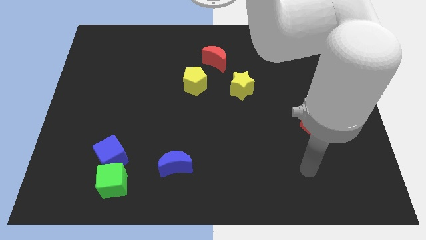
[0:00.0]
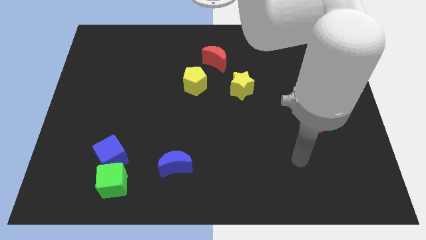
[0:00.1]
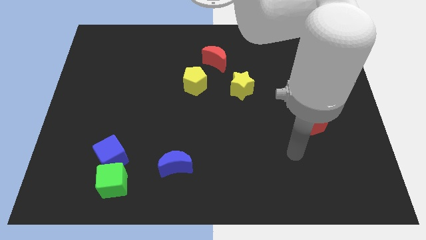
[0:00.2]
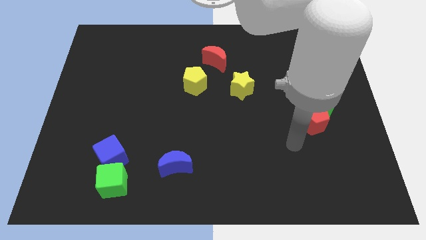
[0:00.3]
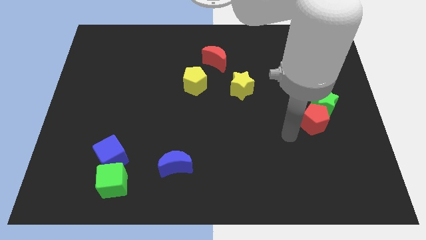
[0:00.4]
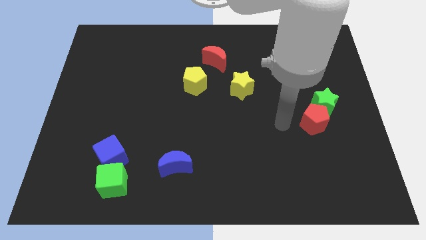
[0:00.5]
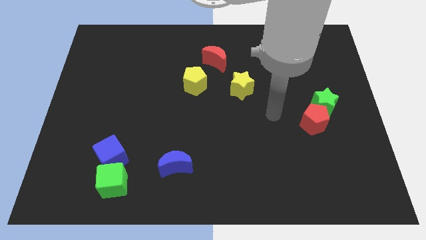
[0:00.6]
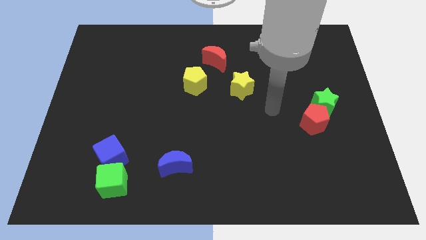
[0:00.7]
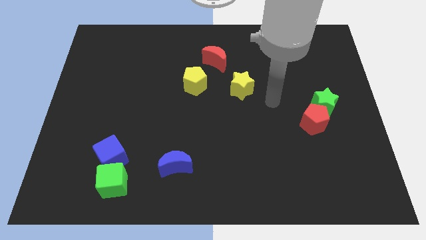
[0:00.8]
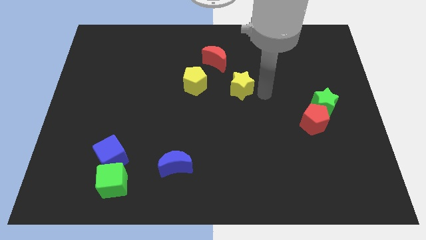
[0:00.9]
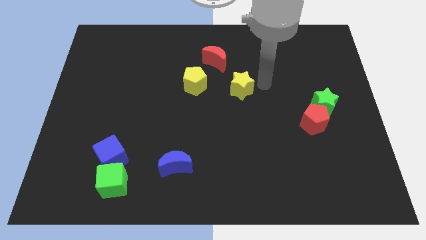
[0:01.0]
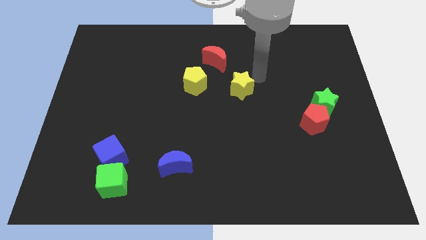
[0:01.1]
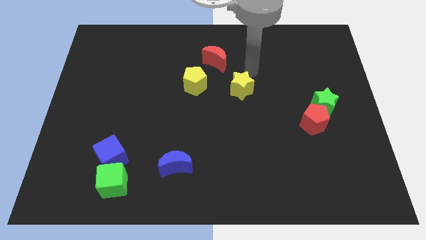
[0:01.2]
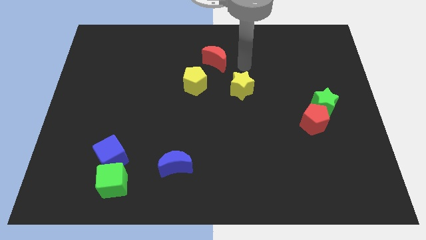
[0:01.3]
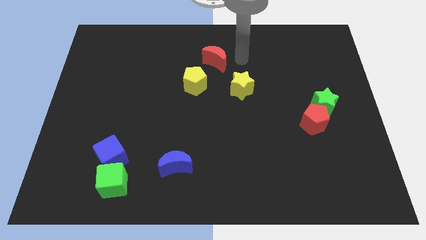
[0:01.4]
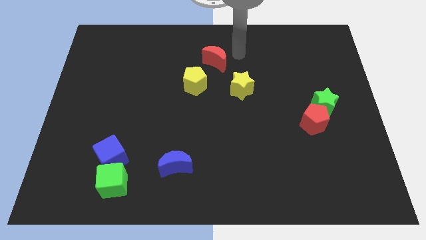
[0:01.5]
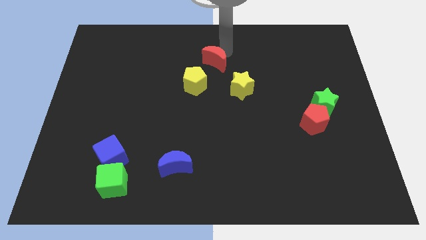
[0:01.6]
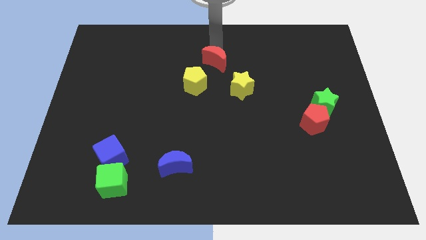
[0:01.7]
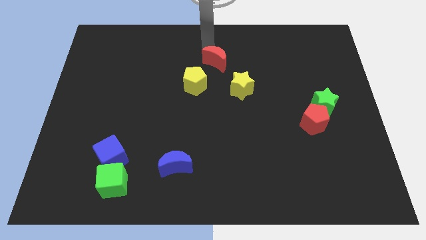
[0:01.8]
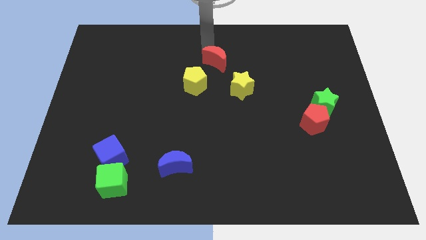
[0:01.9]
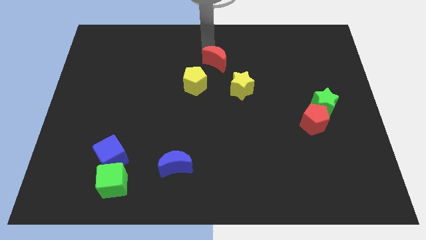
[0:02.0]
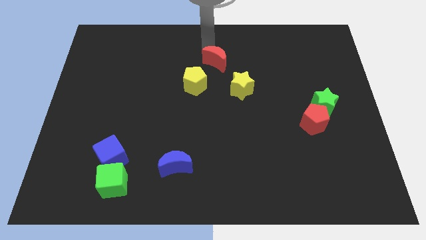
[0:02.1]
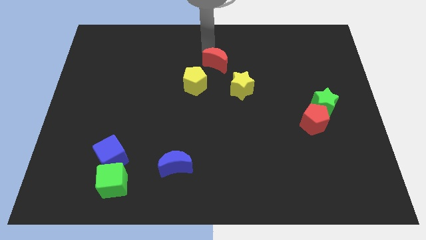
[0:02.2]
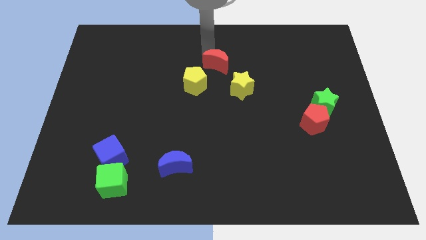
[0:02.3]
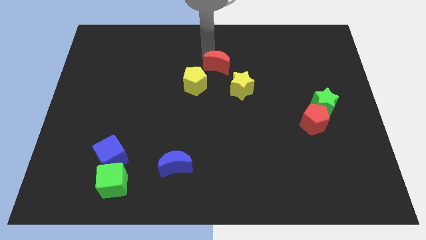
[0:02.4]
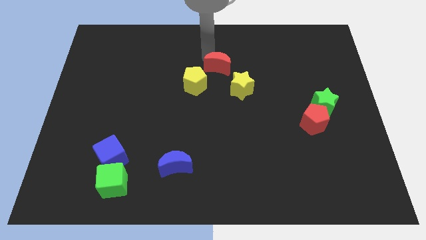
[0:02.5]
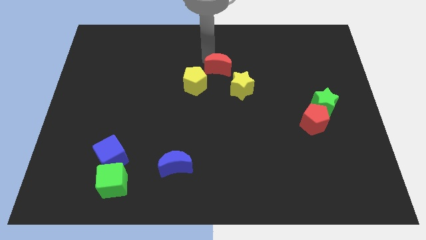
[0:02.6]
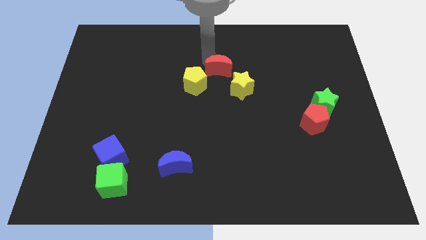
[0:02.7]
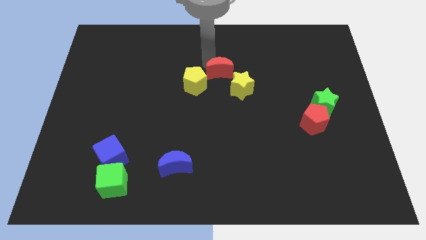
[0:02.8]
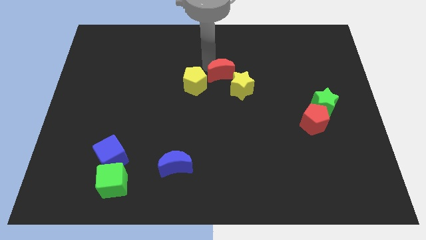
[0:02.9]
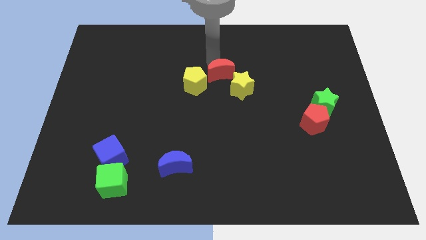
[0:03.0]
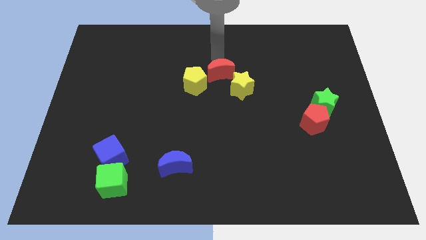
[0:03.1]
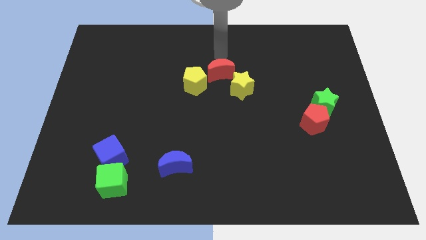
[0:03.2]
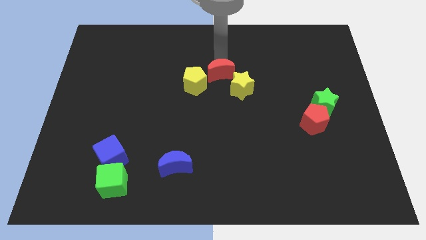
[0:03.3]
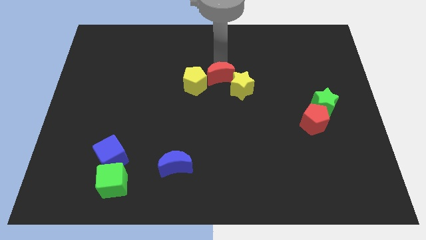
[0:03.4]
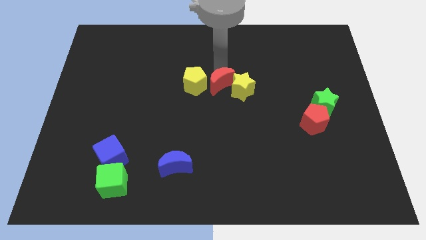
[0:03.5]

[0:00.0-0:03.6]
push the red moon down a little

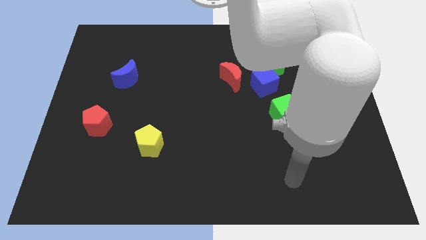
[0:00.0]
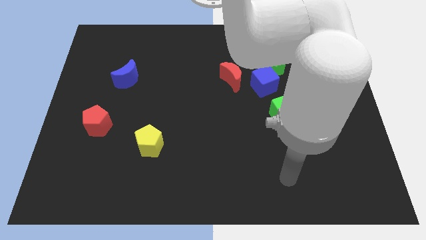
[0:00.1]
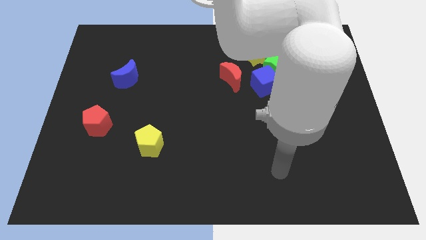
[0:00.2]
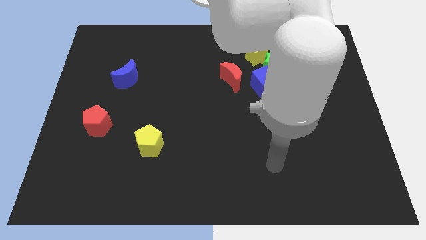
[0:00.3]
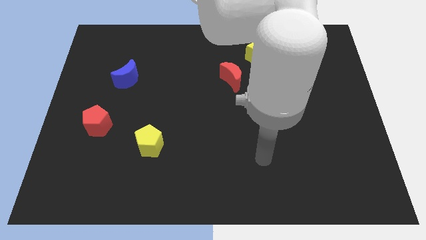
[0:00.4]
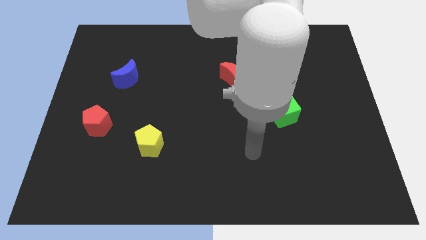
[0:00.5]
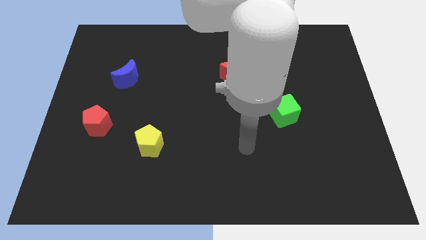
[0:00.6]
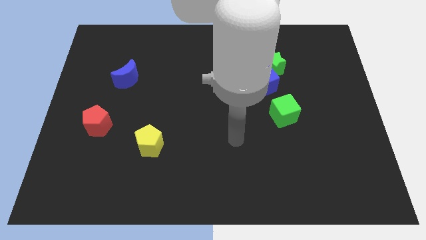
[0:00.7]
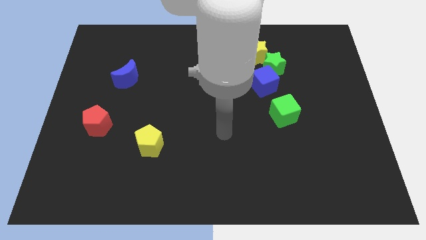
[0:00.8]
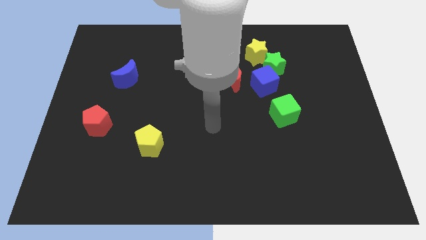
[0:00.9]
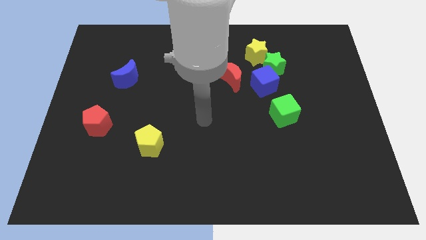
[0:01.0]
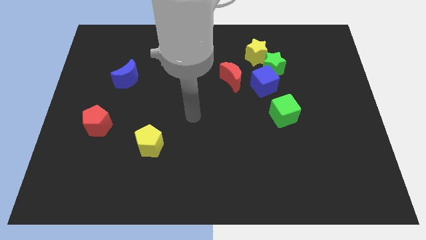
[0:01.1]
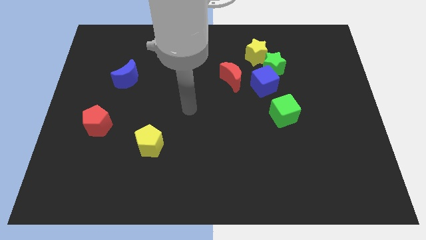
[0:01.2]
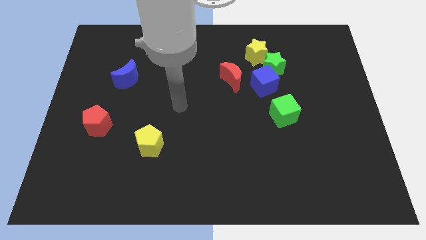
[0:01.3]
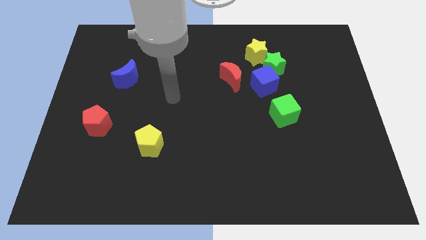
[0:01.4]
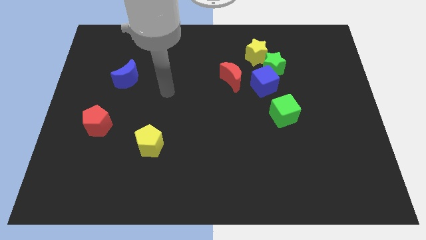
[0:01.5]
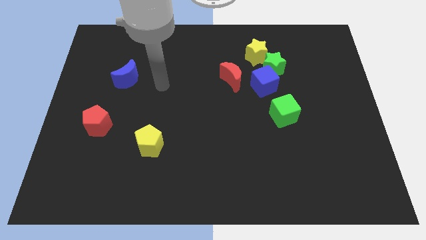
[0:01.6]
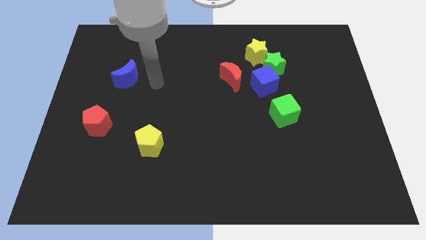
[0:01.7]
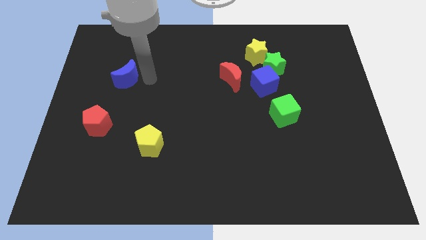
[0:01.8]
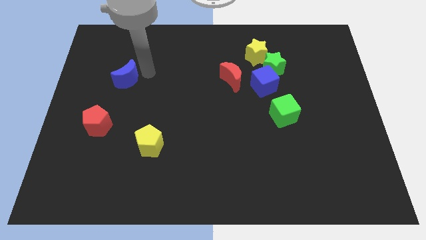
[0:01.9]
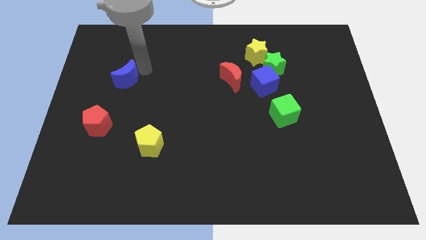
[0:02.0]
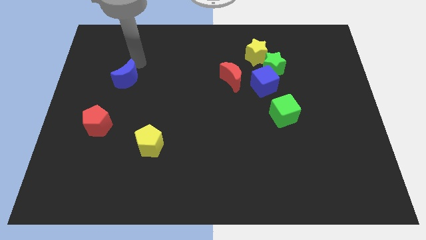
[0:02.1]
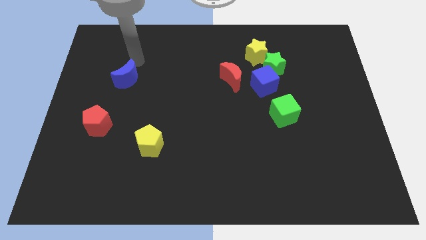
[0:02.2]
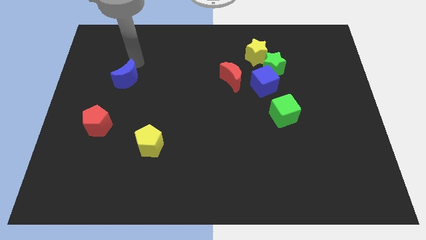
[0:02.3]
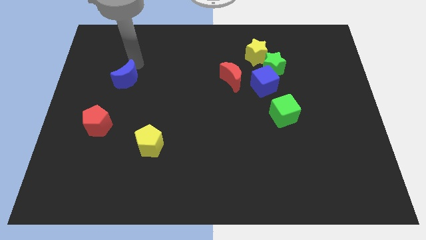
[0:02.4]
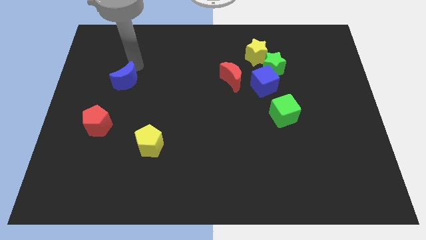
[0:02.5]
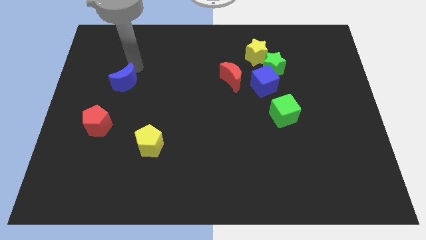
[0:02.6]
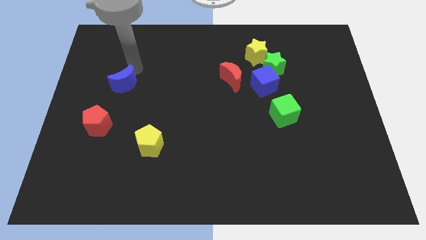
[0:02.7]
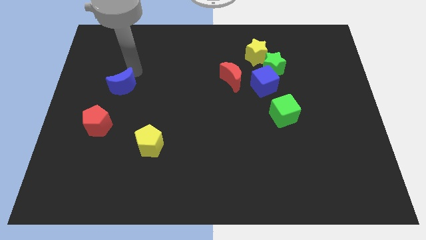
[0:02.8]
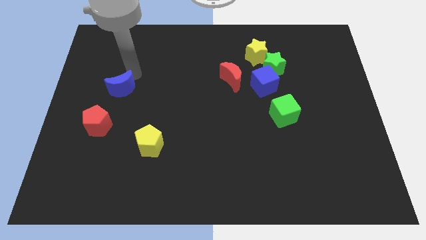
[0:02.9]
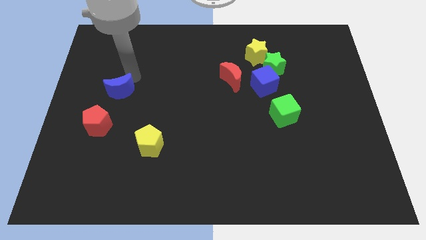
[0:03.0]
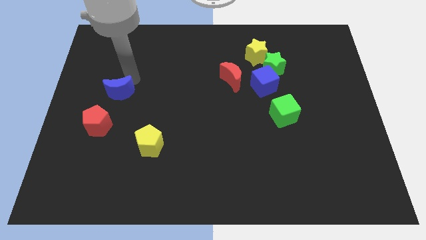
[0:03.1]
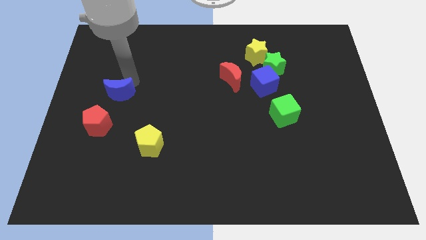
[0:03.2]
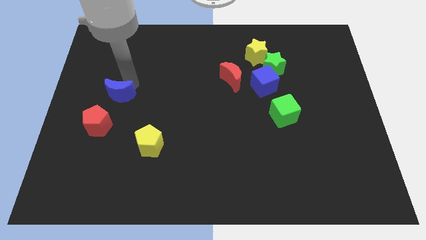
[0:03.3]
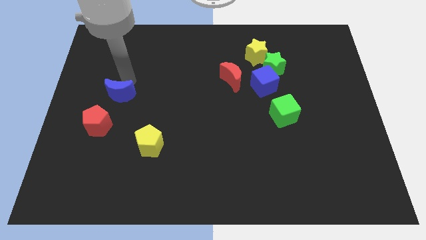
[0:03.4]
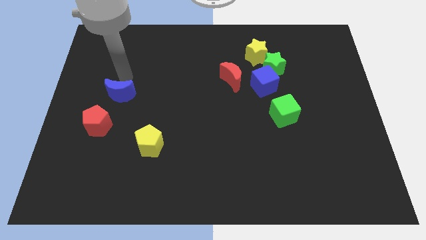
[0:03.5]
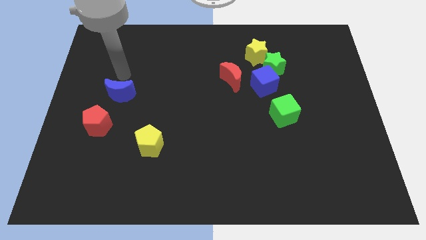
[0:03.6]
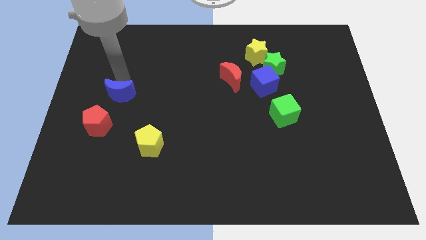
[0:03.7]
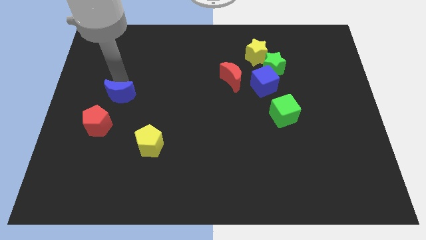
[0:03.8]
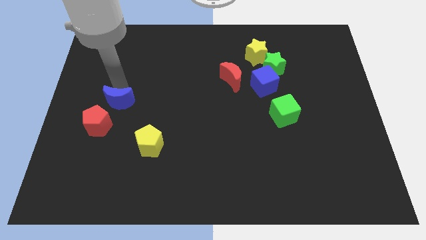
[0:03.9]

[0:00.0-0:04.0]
slightly move the blue moon down

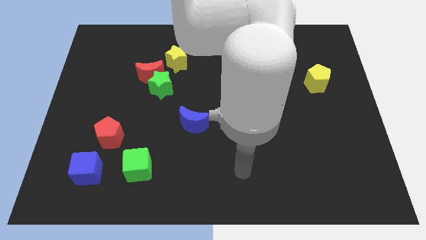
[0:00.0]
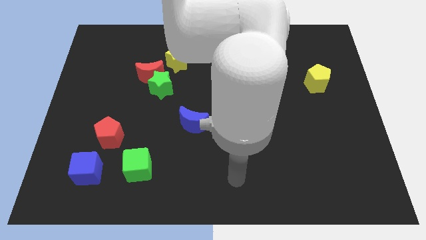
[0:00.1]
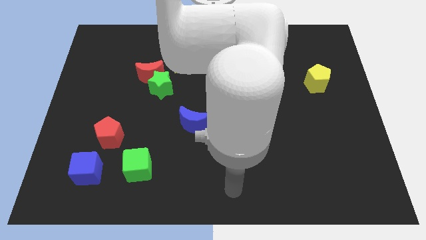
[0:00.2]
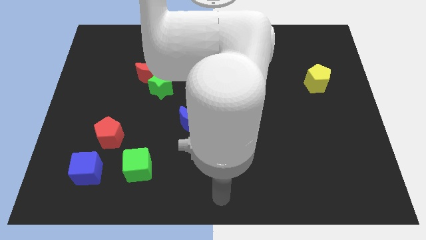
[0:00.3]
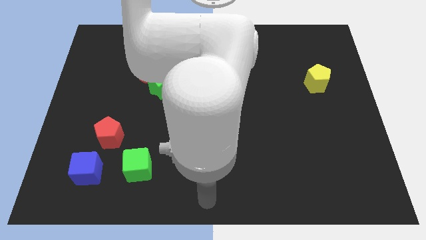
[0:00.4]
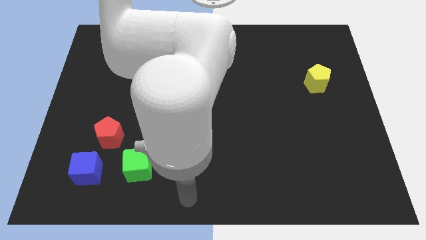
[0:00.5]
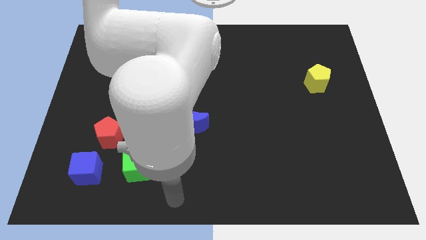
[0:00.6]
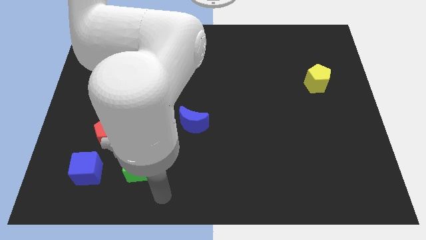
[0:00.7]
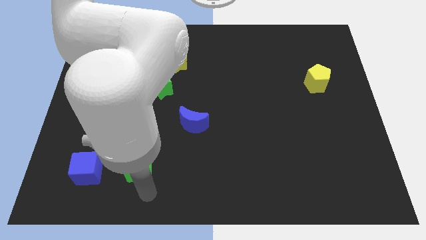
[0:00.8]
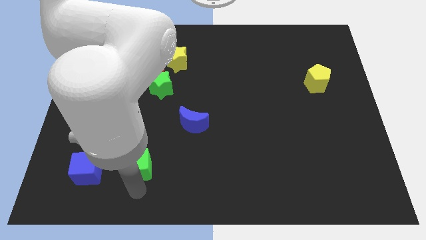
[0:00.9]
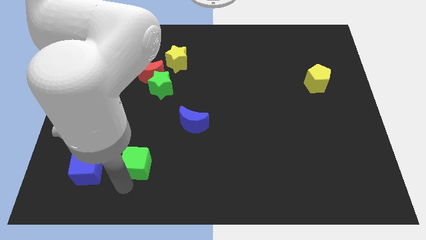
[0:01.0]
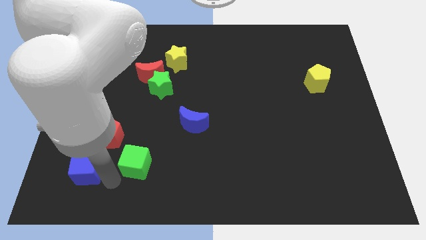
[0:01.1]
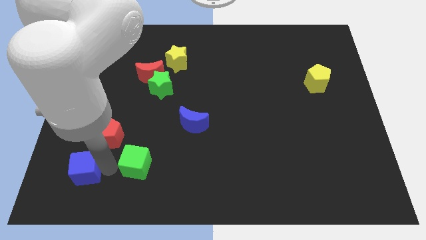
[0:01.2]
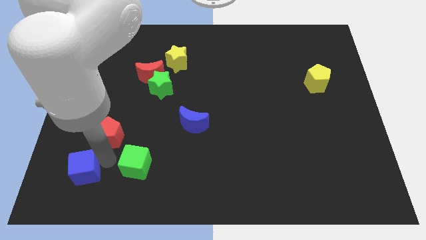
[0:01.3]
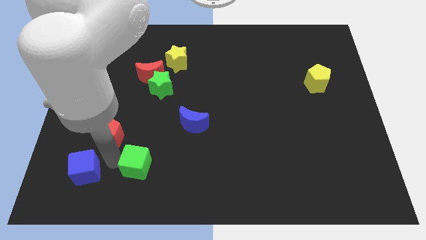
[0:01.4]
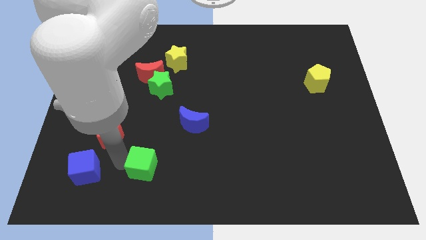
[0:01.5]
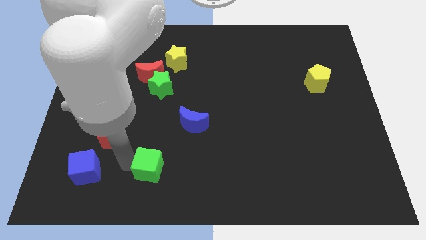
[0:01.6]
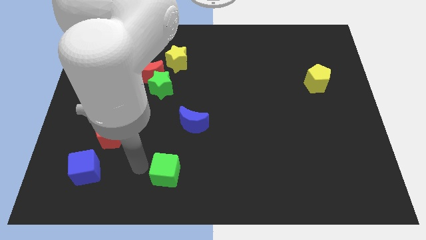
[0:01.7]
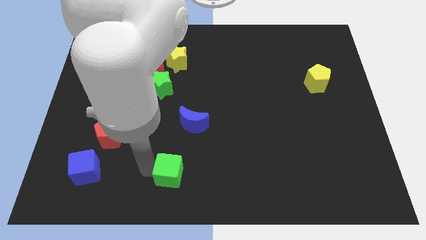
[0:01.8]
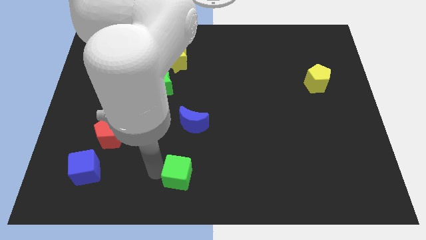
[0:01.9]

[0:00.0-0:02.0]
slightly slide the green cube right
